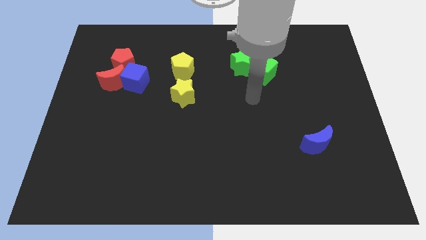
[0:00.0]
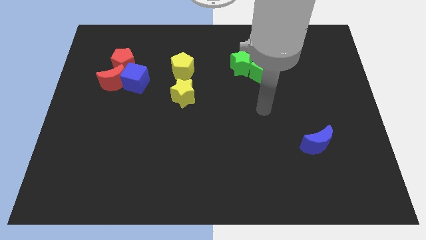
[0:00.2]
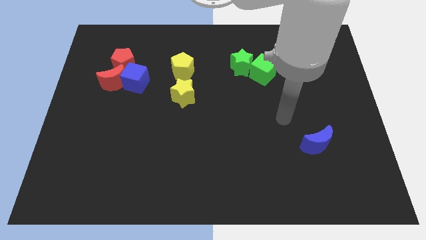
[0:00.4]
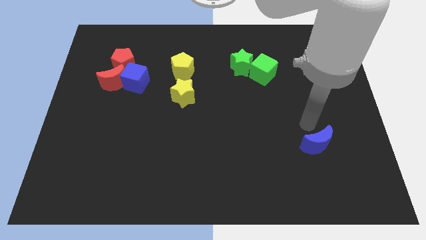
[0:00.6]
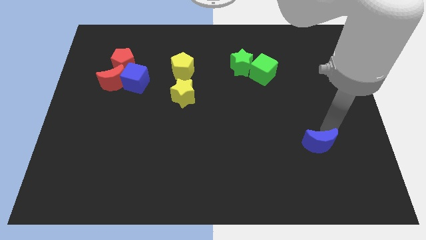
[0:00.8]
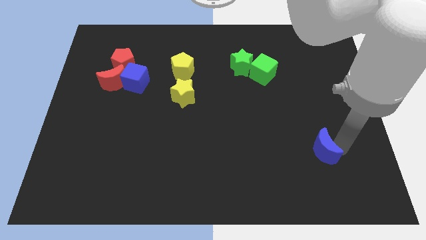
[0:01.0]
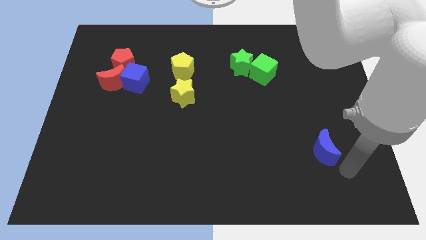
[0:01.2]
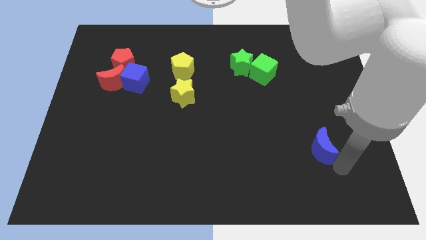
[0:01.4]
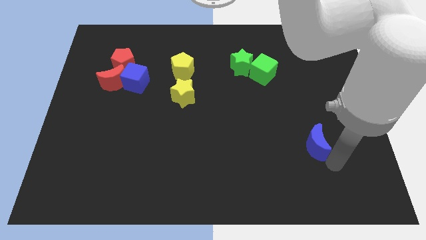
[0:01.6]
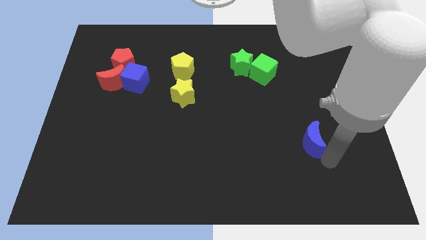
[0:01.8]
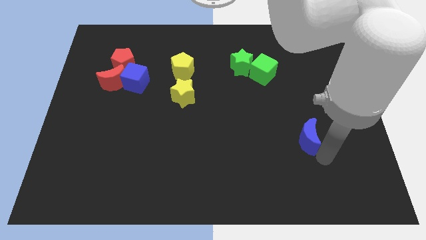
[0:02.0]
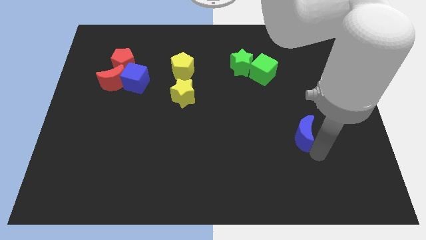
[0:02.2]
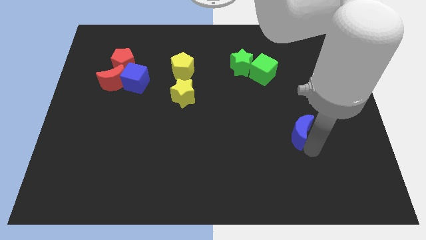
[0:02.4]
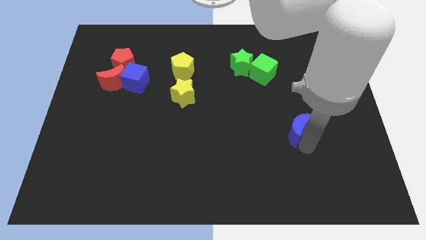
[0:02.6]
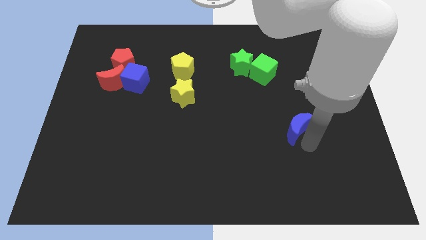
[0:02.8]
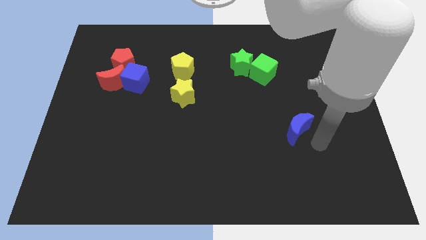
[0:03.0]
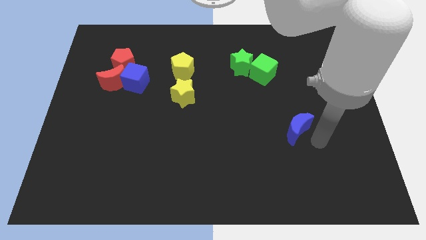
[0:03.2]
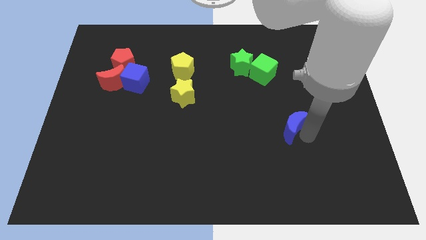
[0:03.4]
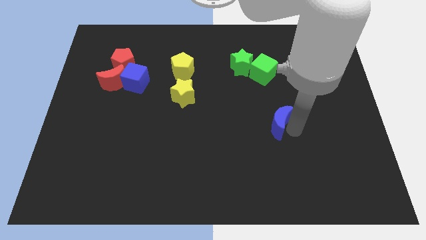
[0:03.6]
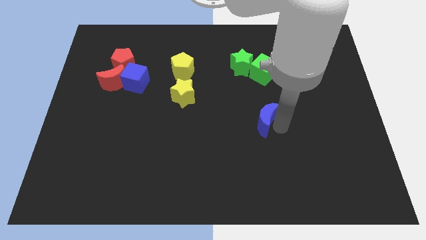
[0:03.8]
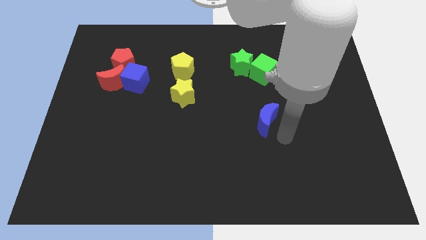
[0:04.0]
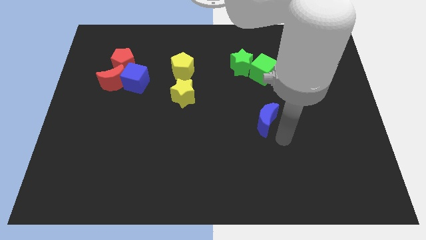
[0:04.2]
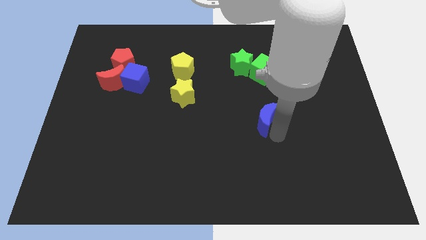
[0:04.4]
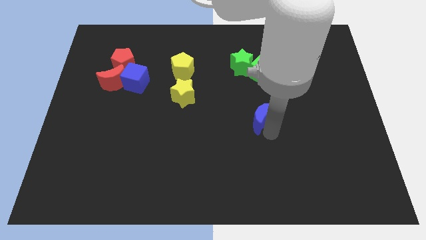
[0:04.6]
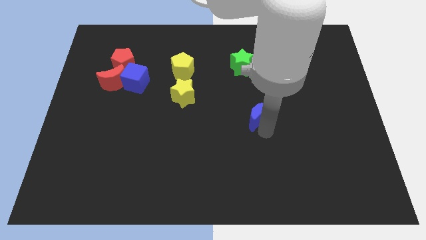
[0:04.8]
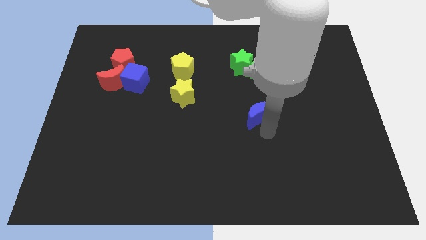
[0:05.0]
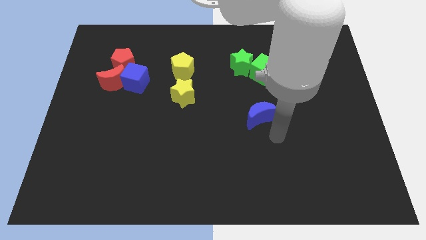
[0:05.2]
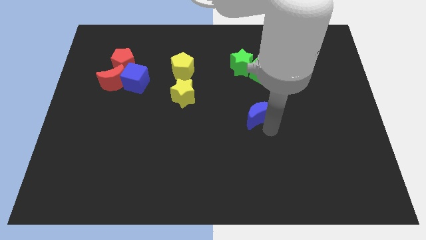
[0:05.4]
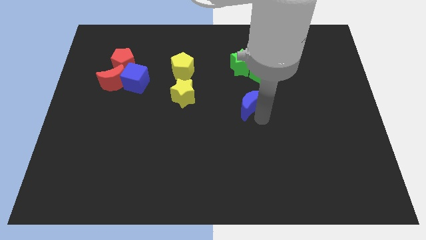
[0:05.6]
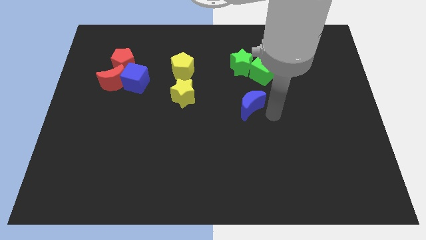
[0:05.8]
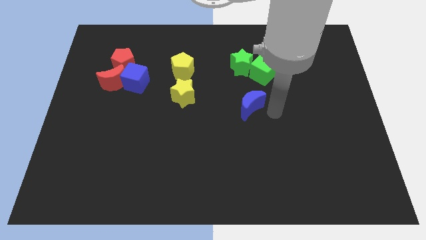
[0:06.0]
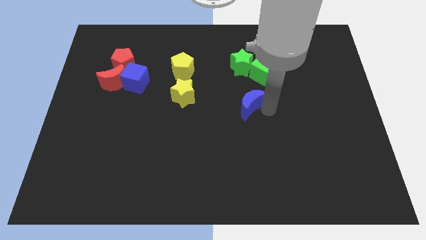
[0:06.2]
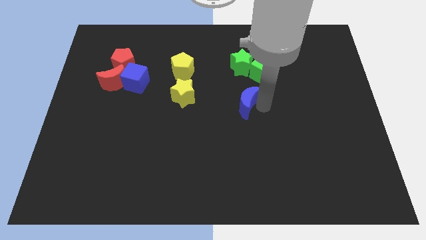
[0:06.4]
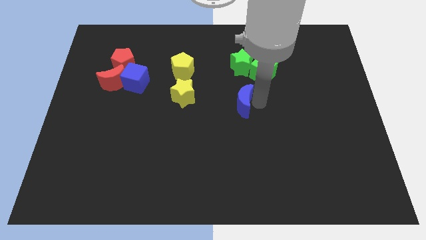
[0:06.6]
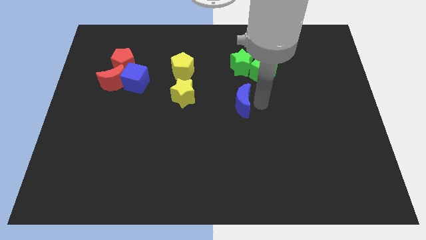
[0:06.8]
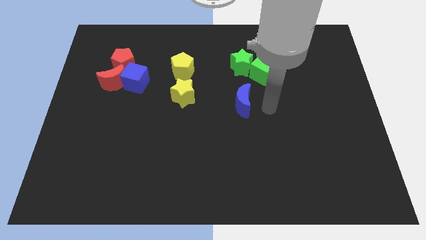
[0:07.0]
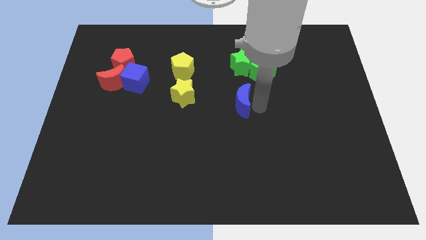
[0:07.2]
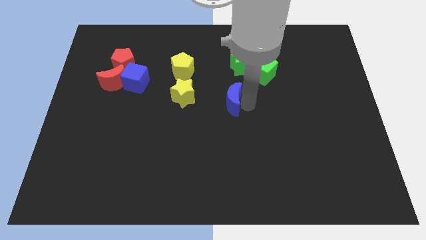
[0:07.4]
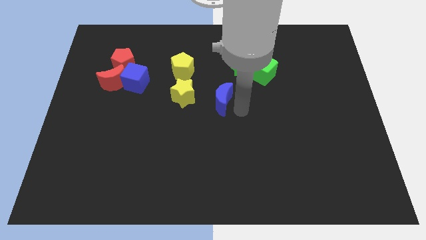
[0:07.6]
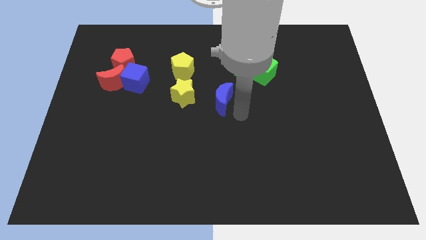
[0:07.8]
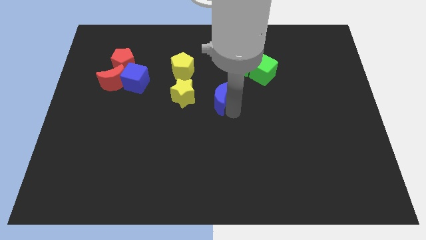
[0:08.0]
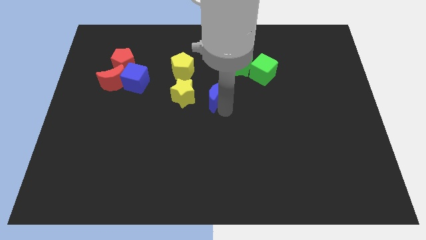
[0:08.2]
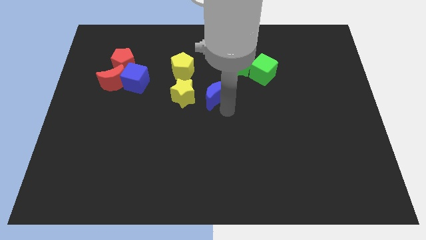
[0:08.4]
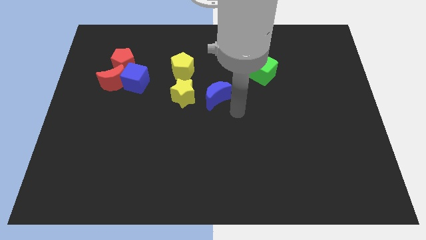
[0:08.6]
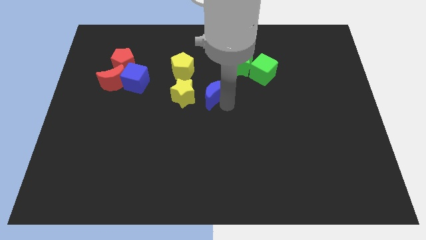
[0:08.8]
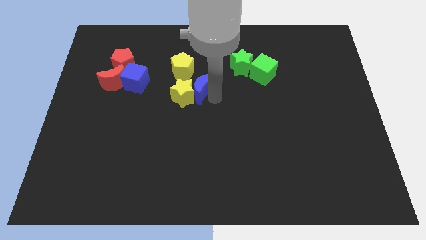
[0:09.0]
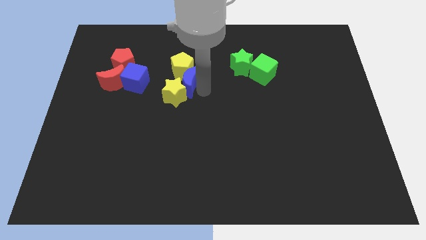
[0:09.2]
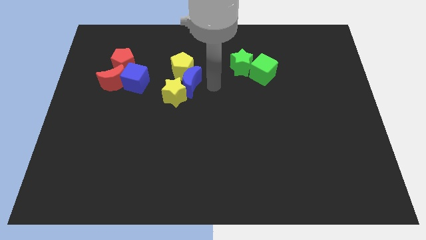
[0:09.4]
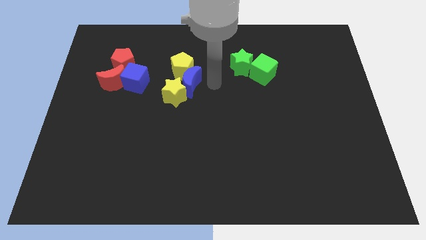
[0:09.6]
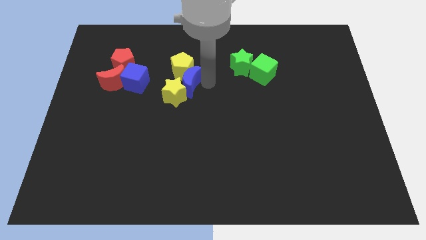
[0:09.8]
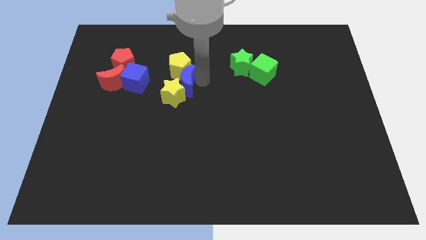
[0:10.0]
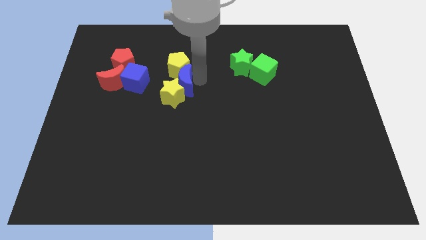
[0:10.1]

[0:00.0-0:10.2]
push the blue moon to the bottom left of the yellow pentagon
